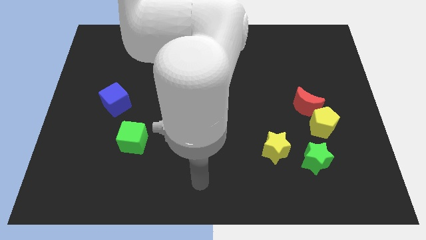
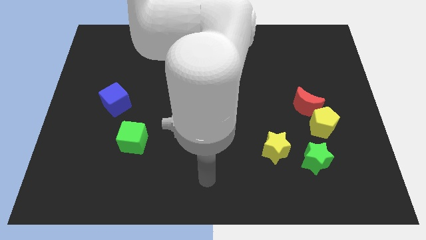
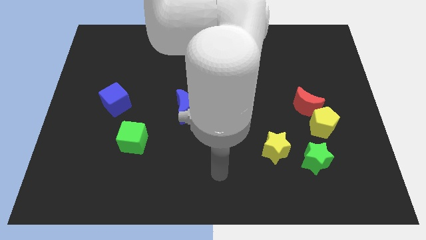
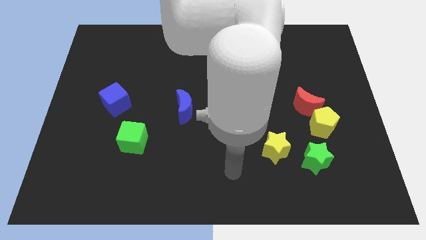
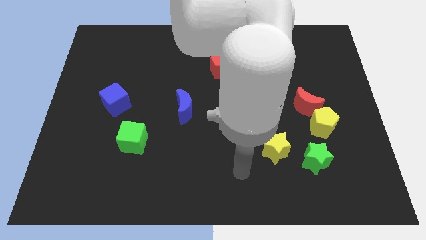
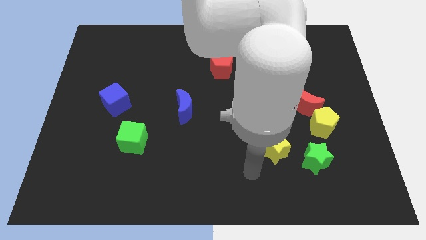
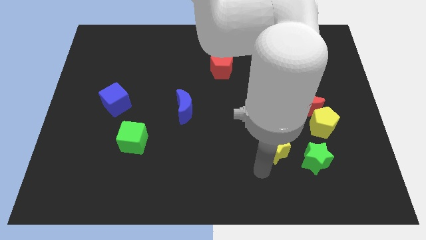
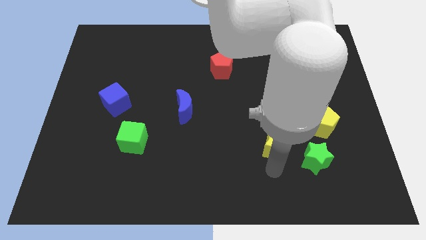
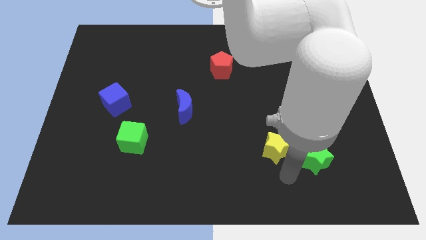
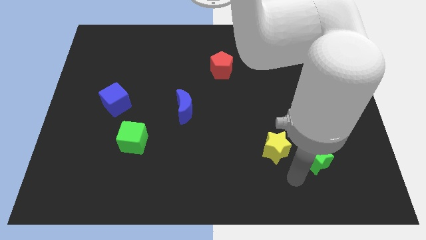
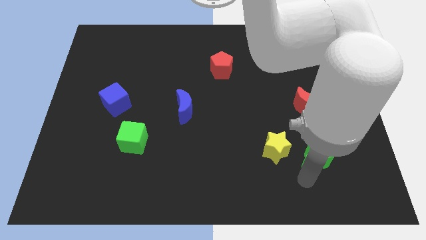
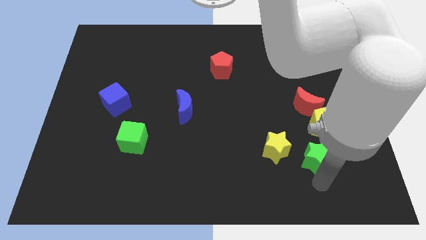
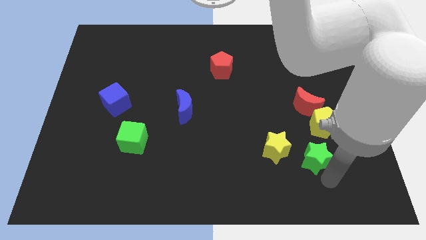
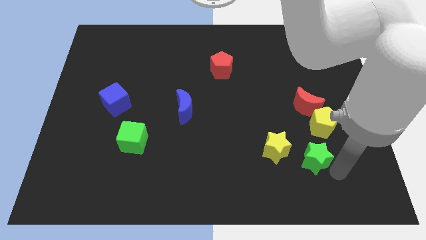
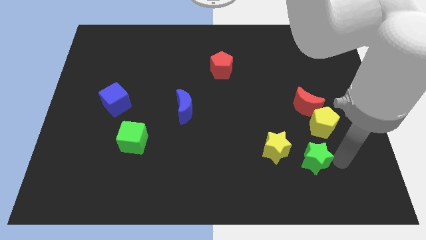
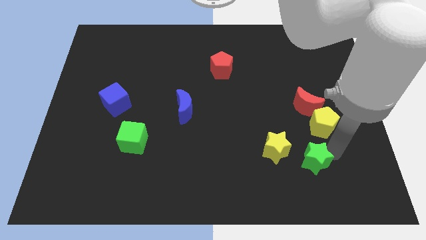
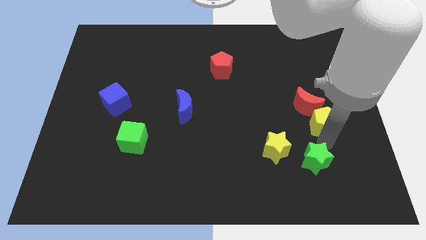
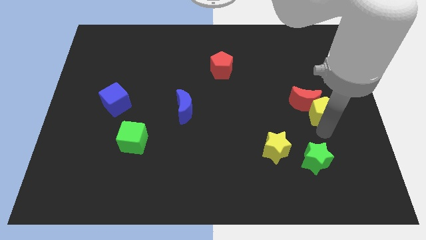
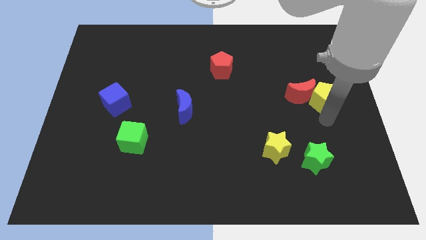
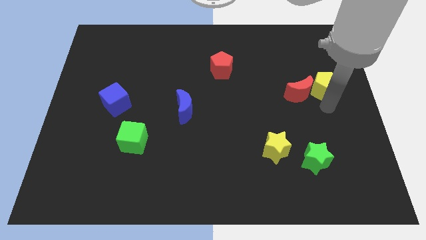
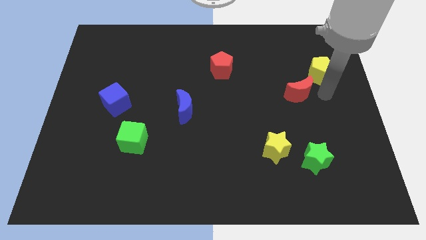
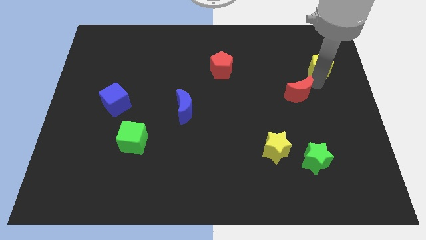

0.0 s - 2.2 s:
pull the red moon apart from the yellow pentagon

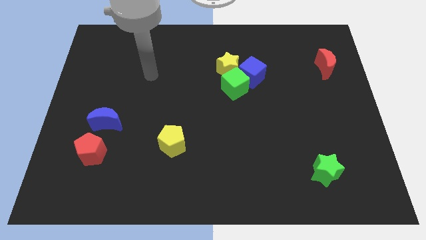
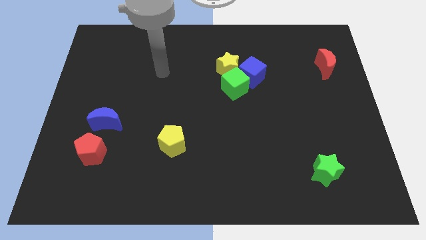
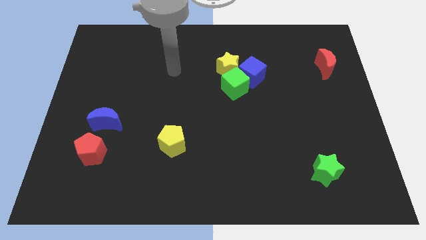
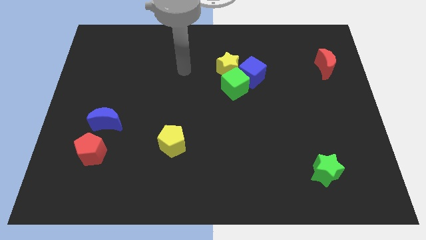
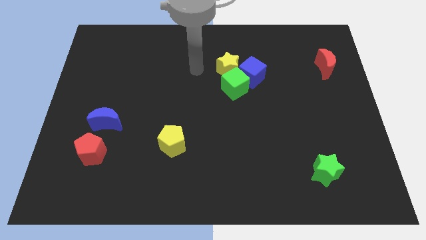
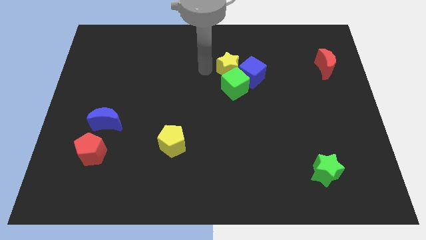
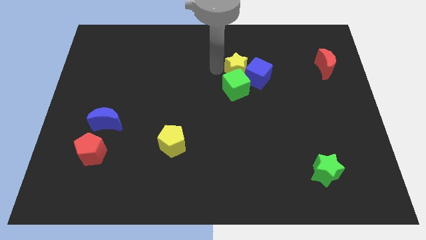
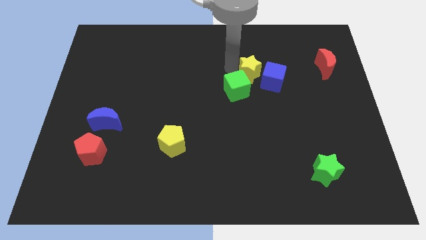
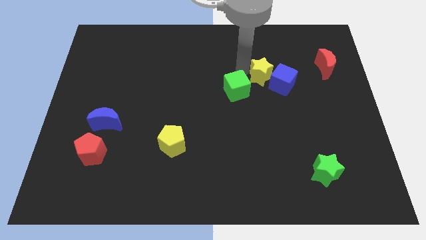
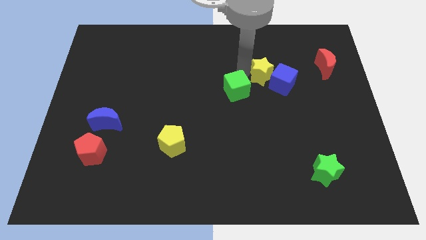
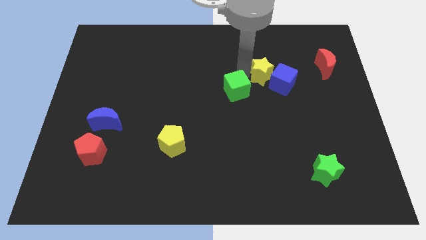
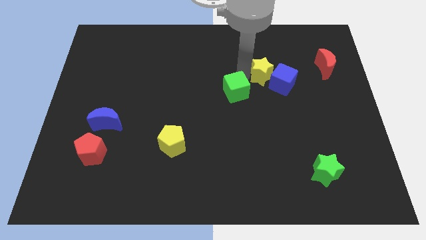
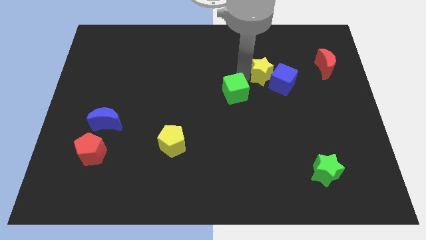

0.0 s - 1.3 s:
pull the green cube apart from the blue cube and yellow star

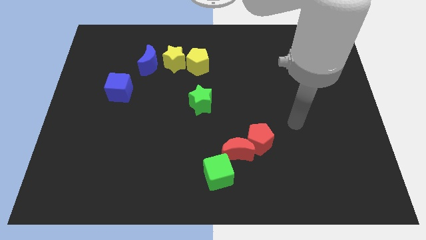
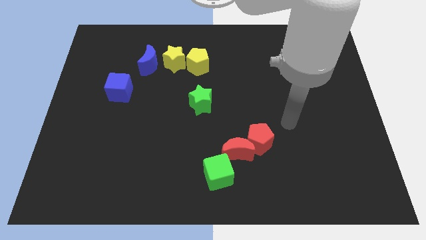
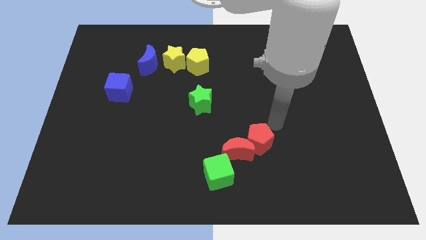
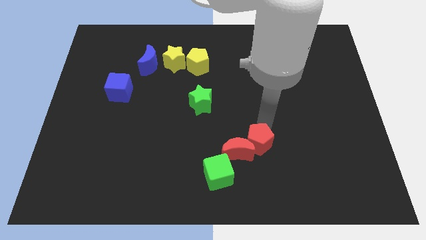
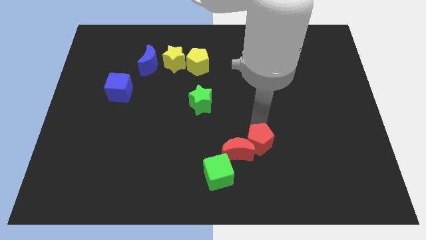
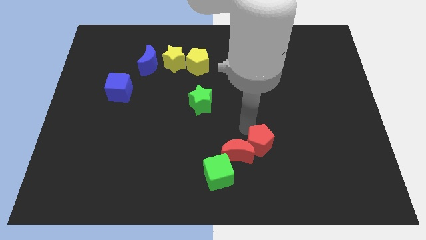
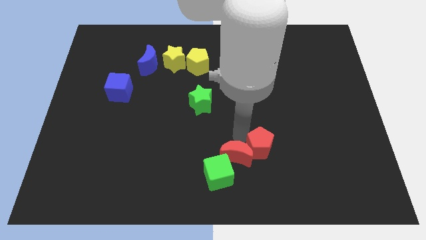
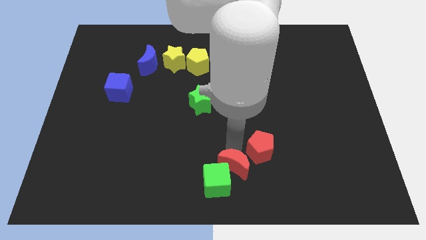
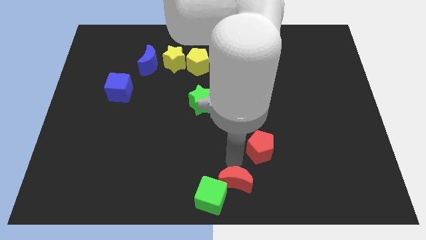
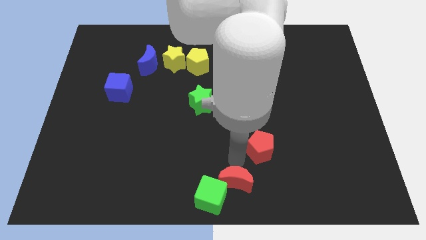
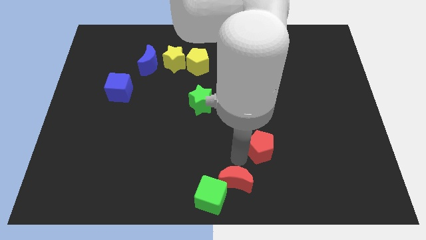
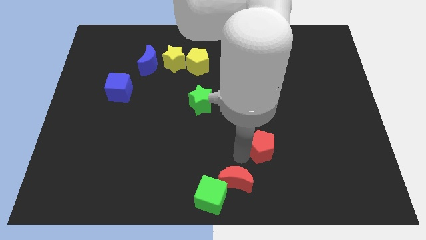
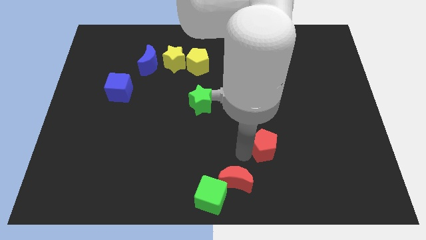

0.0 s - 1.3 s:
separate the red pentagon from the red moon

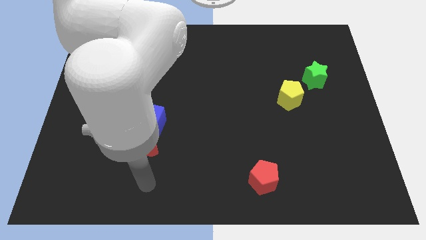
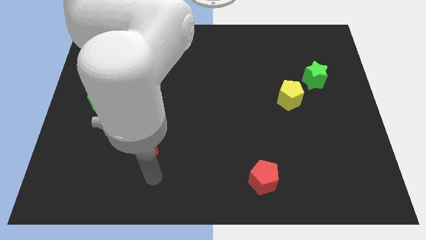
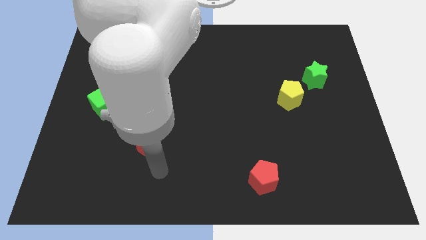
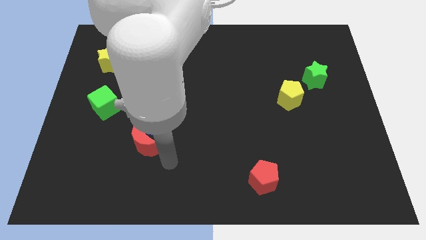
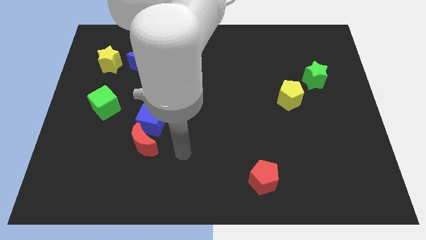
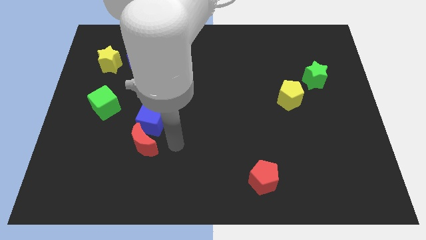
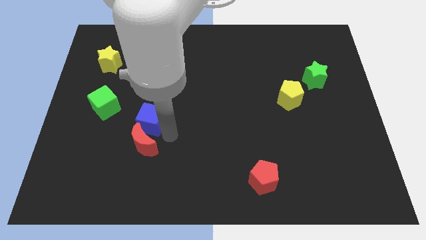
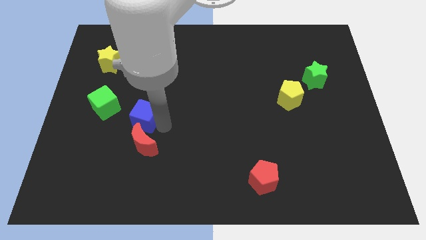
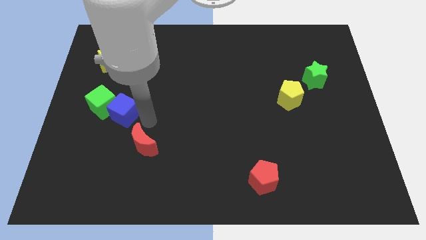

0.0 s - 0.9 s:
move the red moon away from the blue cube

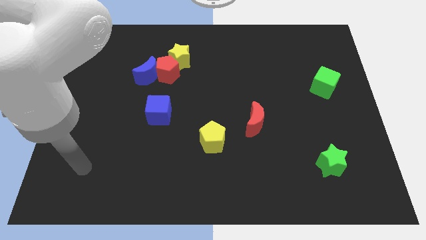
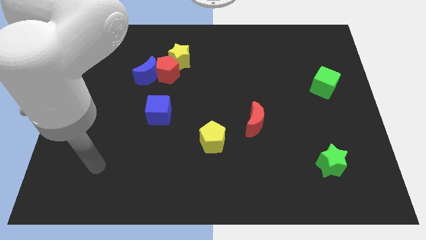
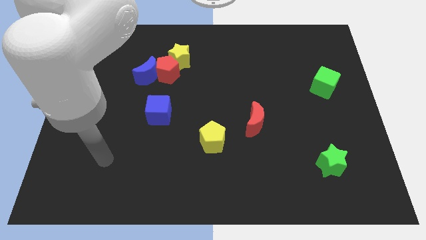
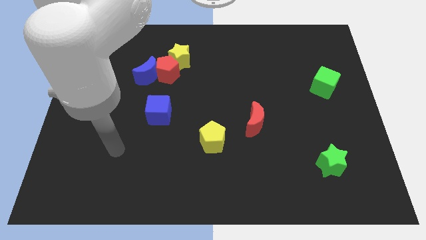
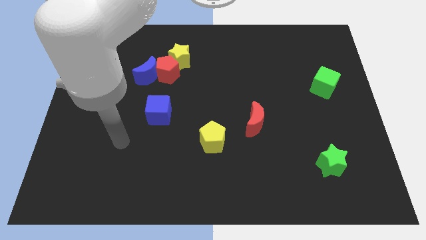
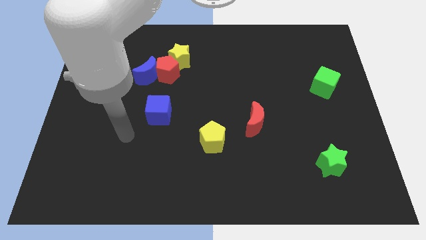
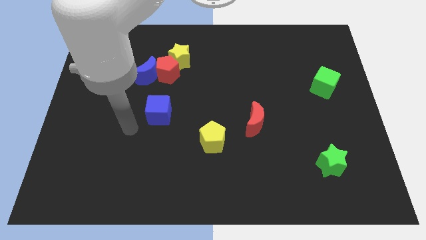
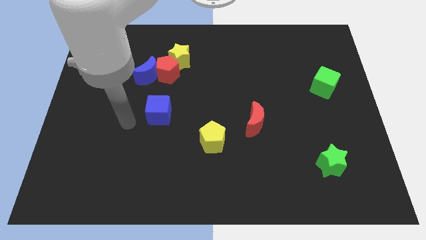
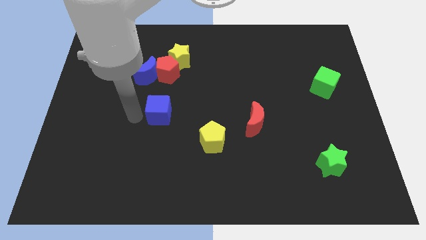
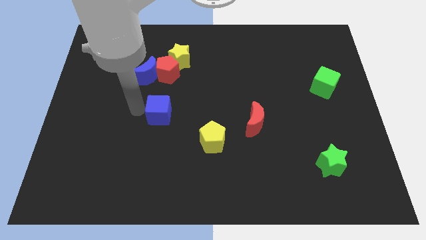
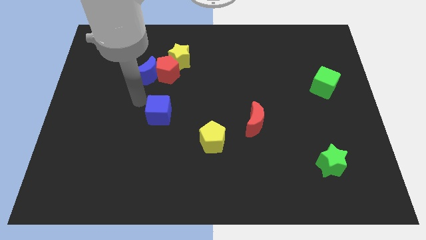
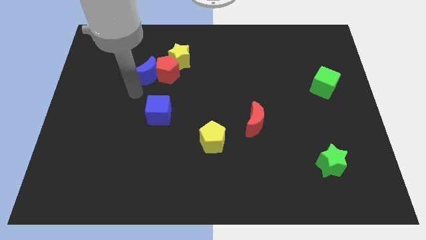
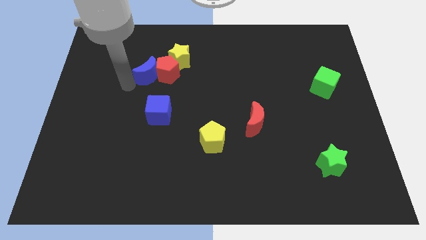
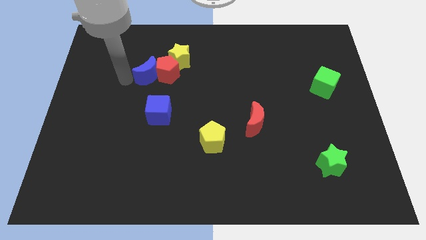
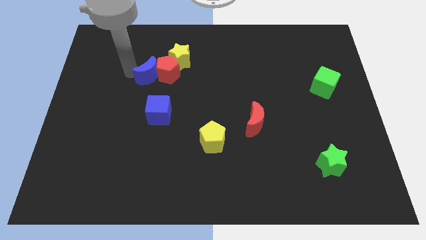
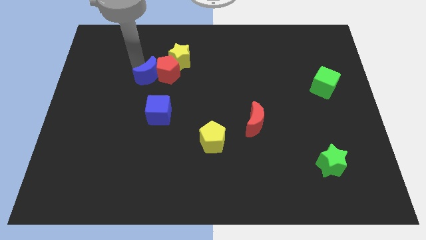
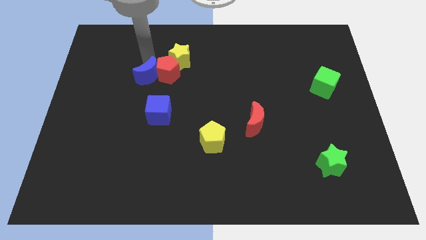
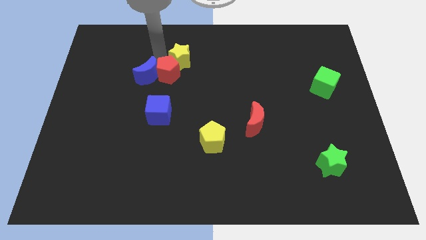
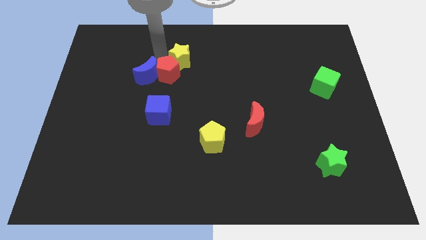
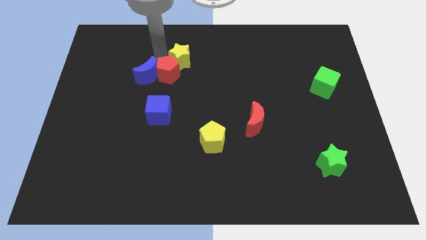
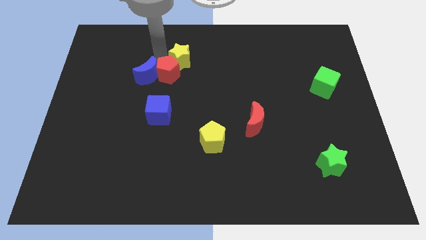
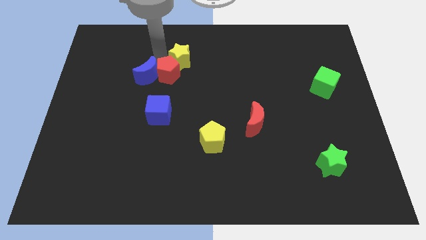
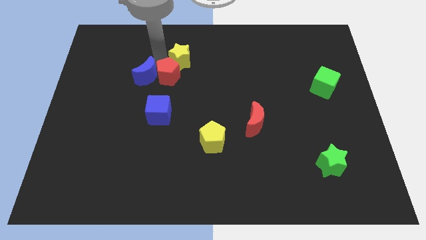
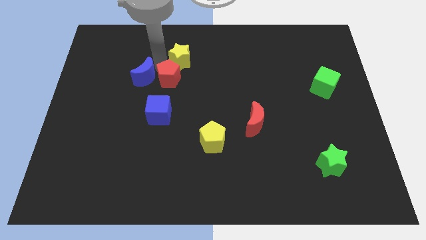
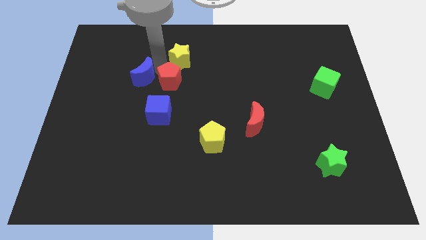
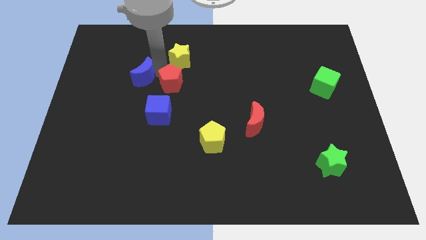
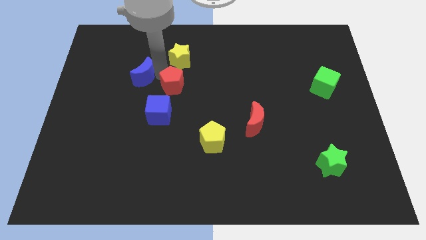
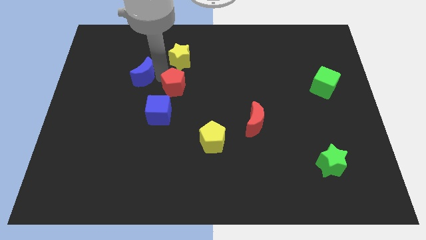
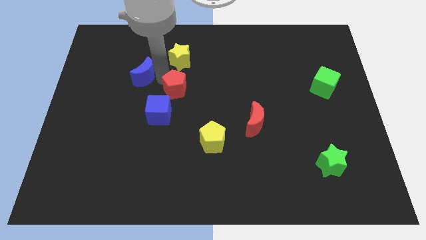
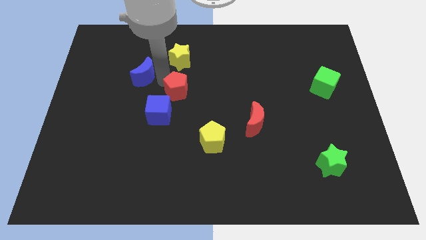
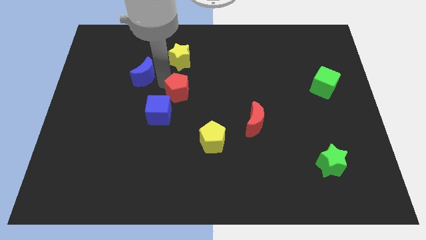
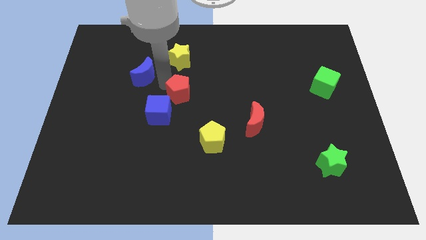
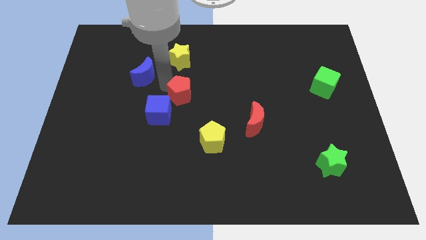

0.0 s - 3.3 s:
separate the red pentagon from the blue moon and yellow star

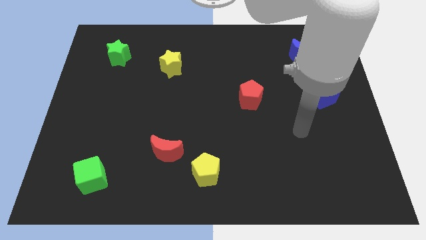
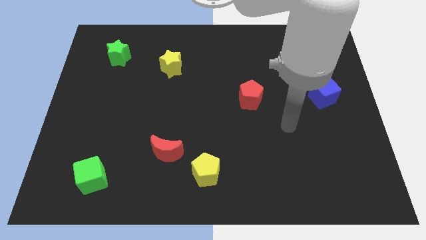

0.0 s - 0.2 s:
move the red moon away from the yellow pentagon
